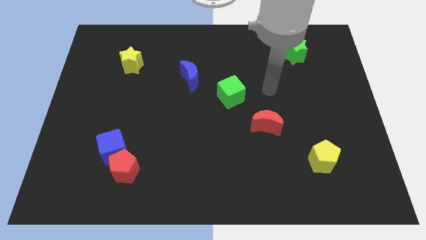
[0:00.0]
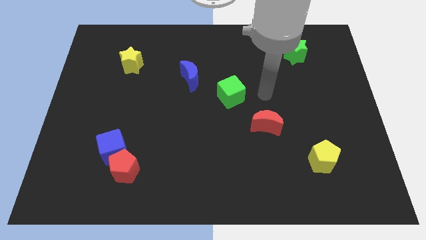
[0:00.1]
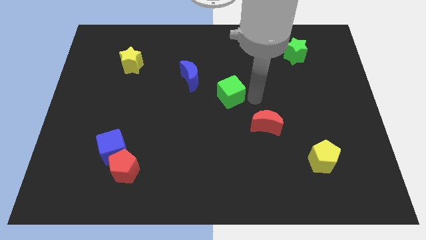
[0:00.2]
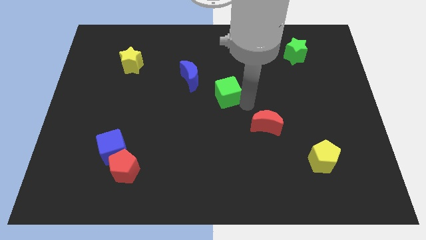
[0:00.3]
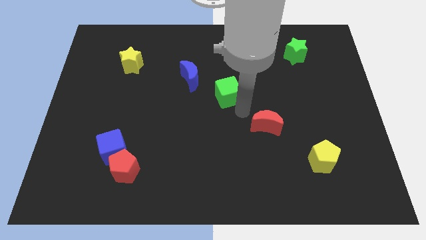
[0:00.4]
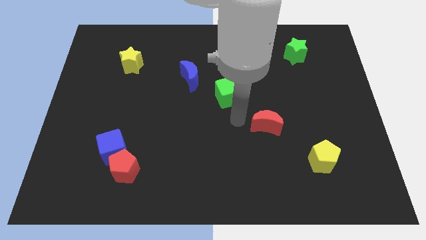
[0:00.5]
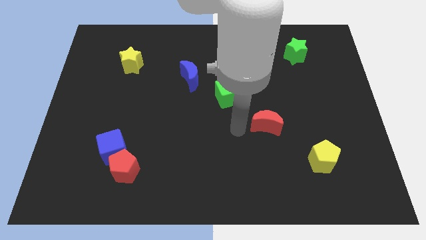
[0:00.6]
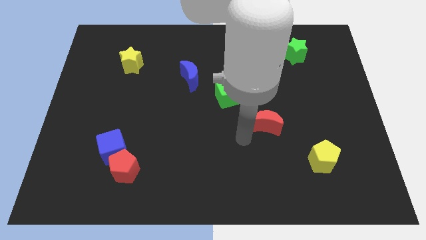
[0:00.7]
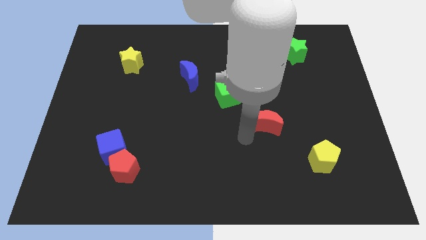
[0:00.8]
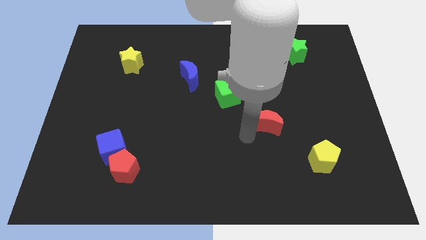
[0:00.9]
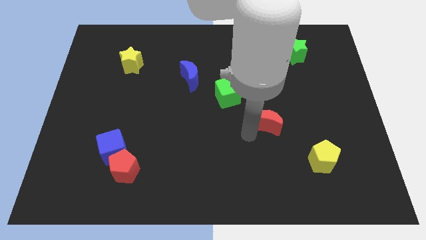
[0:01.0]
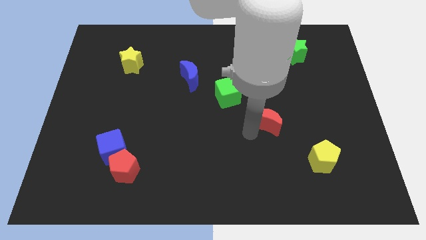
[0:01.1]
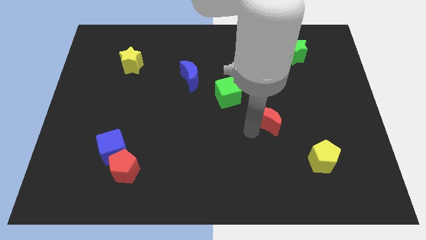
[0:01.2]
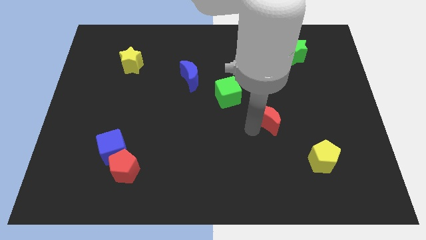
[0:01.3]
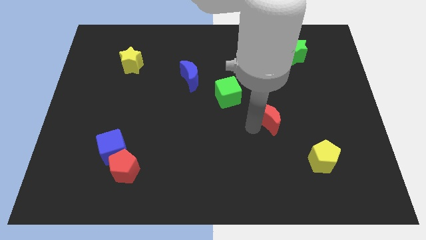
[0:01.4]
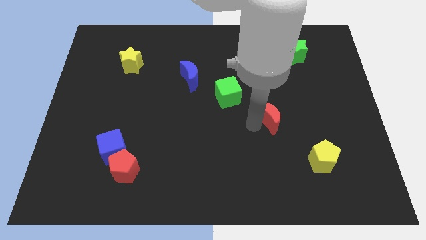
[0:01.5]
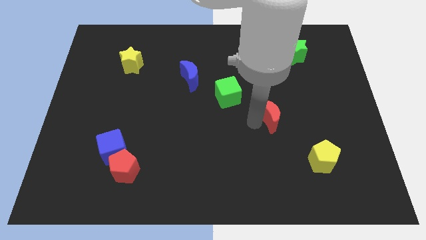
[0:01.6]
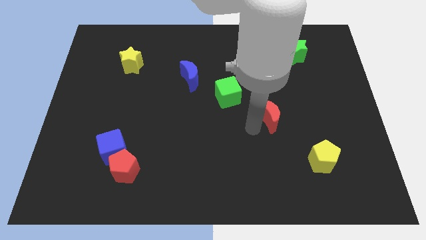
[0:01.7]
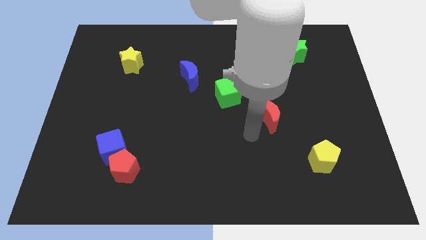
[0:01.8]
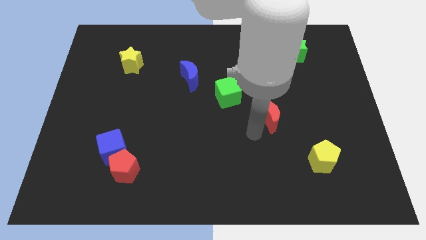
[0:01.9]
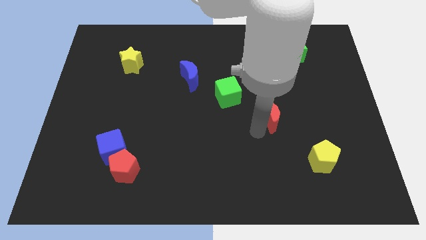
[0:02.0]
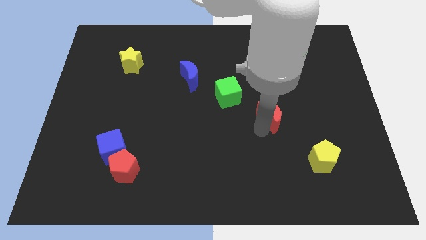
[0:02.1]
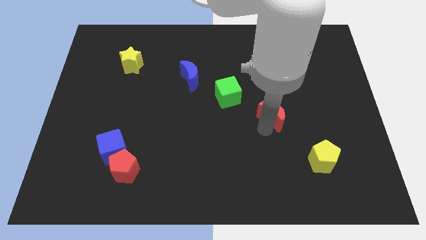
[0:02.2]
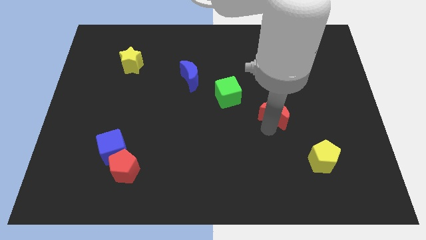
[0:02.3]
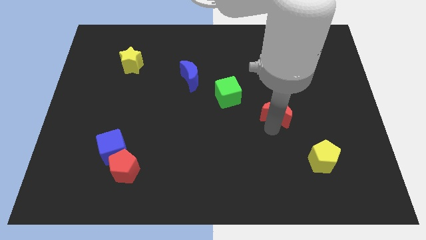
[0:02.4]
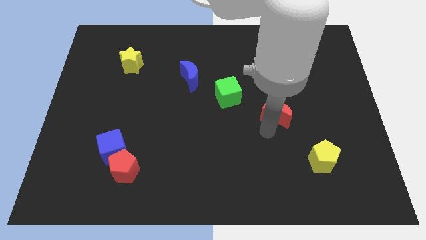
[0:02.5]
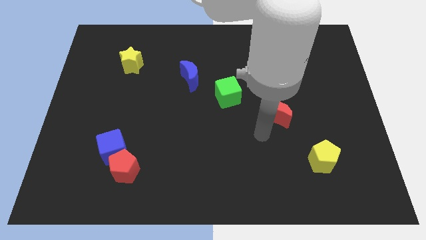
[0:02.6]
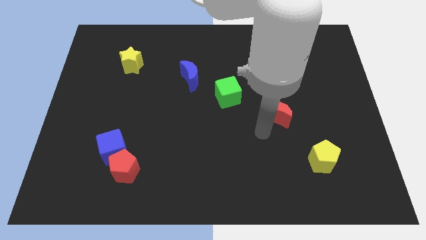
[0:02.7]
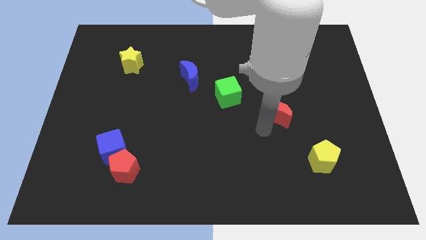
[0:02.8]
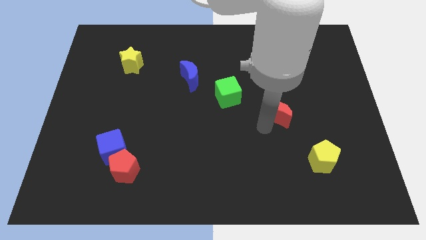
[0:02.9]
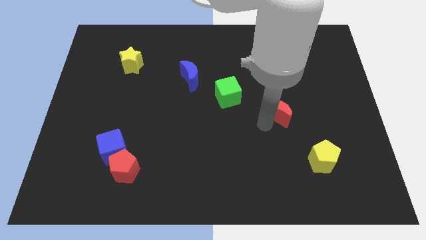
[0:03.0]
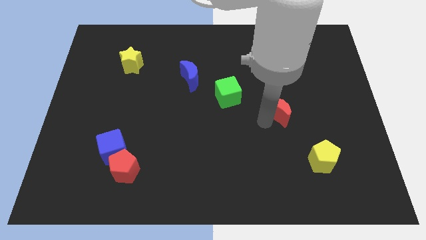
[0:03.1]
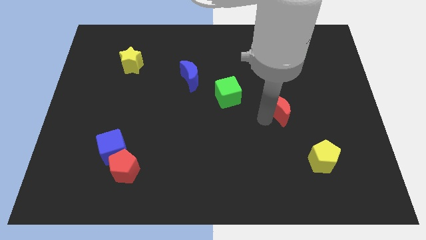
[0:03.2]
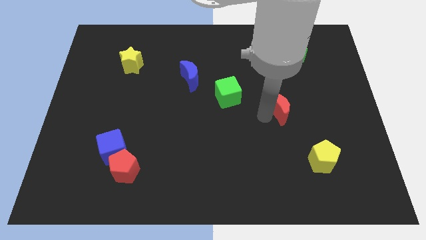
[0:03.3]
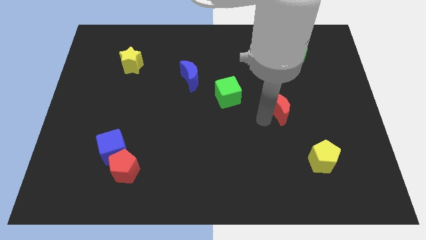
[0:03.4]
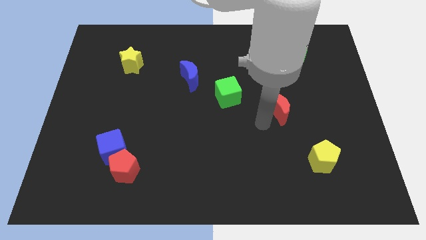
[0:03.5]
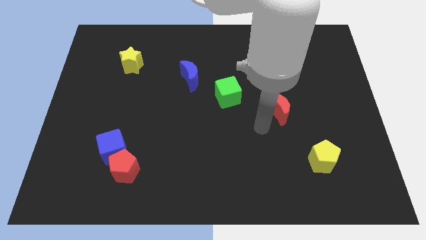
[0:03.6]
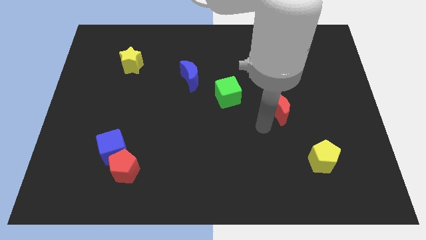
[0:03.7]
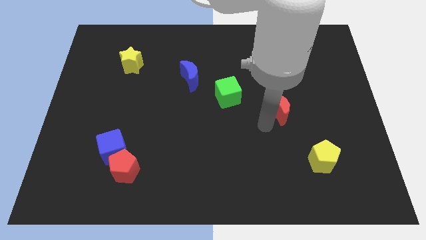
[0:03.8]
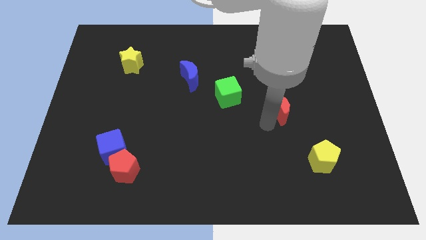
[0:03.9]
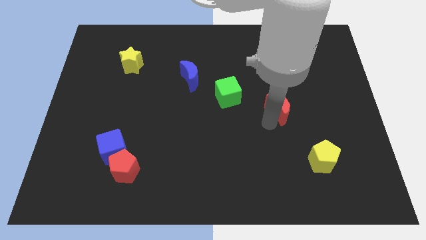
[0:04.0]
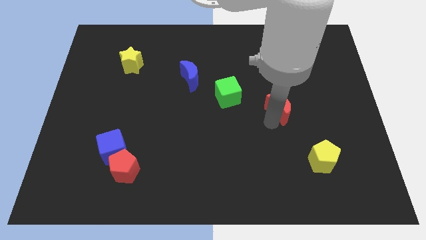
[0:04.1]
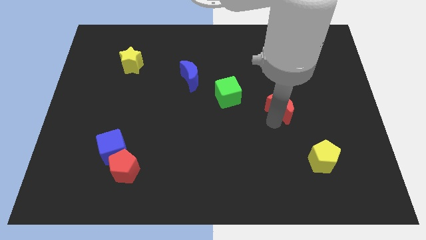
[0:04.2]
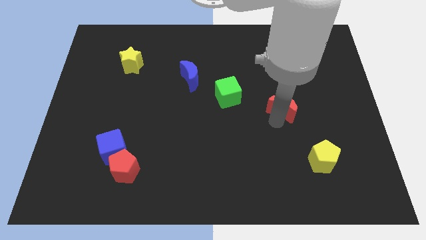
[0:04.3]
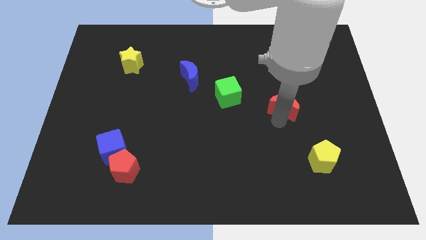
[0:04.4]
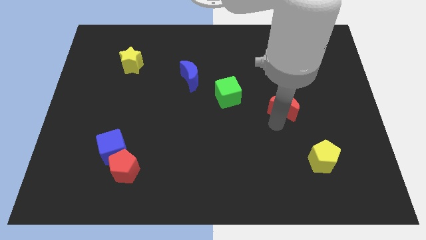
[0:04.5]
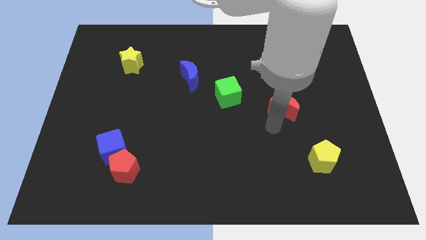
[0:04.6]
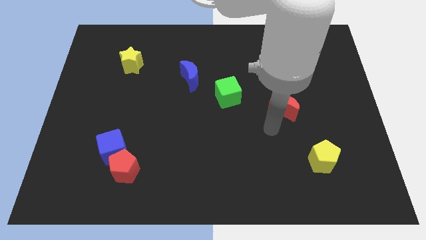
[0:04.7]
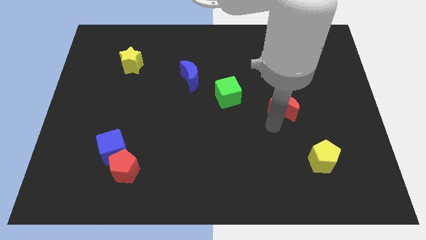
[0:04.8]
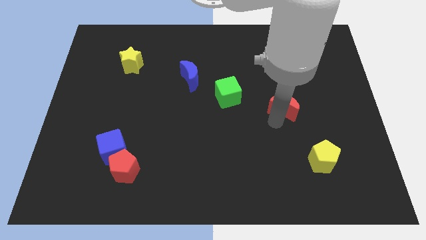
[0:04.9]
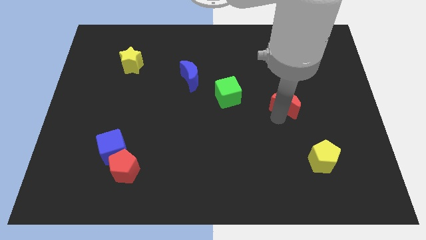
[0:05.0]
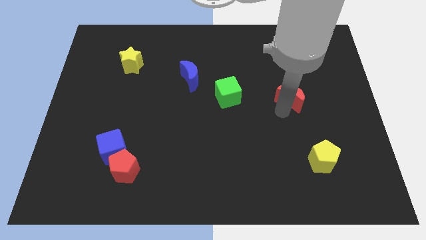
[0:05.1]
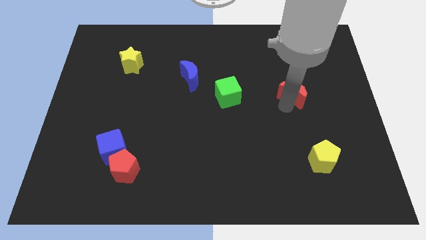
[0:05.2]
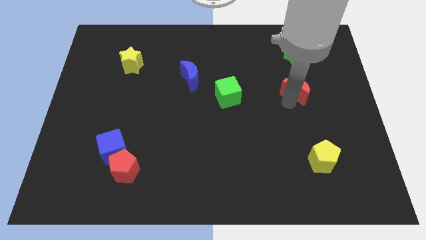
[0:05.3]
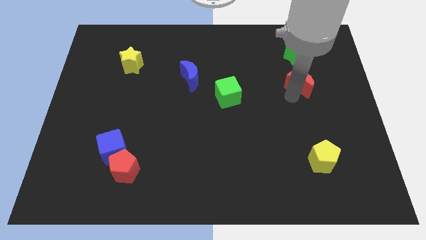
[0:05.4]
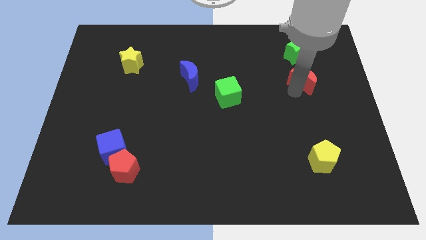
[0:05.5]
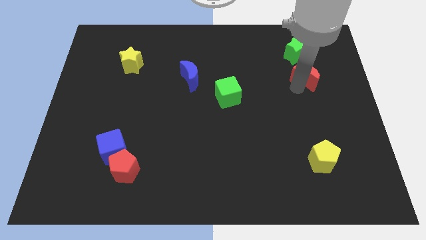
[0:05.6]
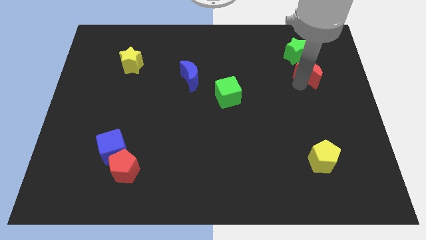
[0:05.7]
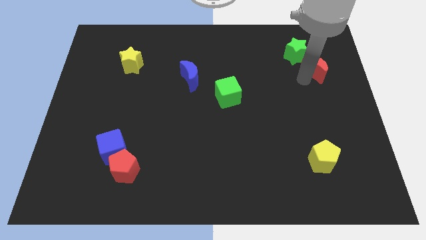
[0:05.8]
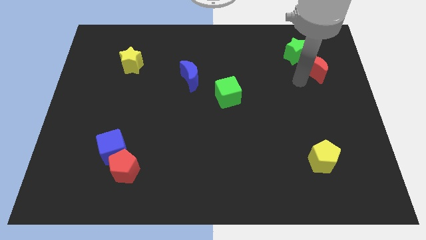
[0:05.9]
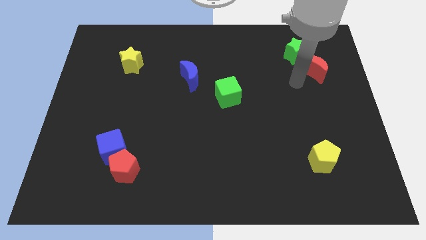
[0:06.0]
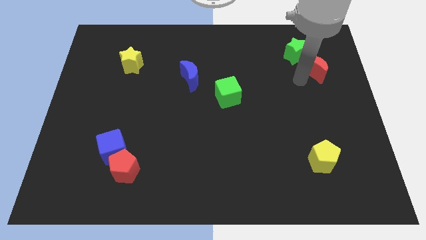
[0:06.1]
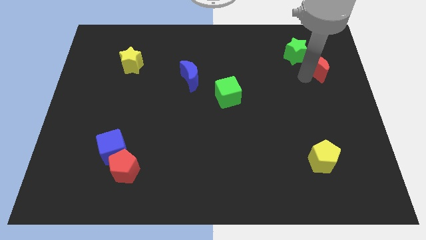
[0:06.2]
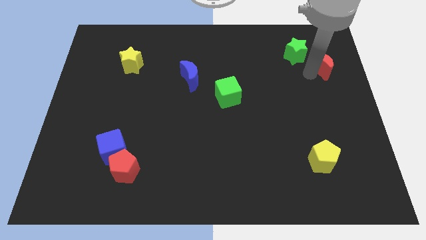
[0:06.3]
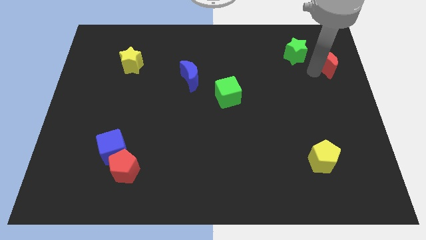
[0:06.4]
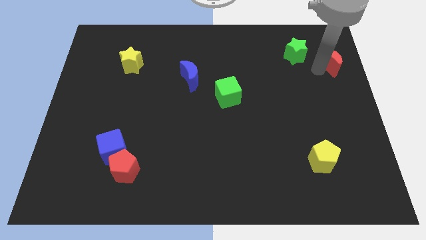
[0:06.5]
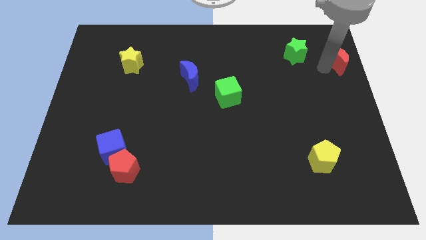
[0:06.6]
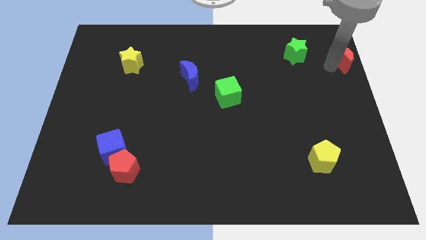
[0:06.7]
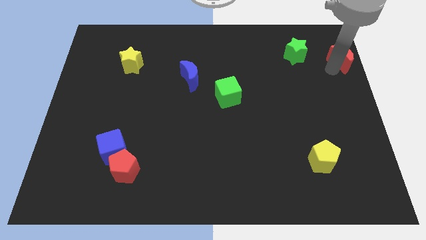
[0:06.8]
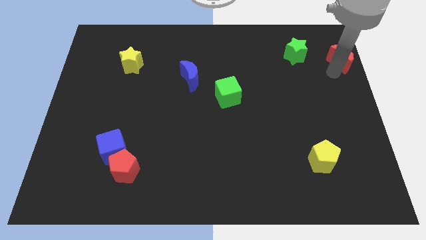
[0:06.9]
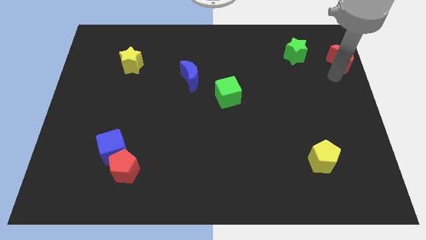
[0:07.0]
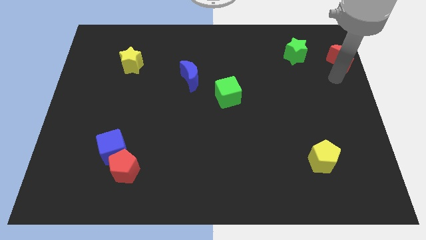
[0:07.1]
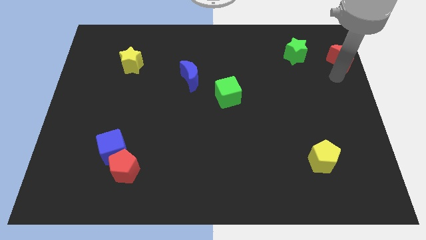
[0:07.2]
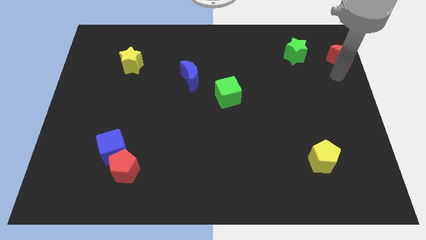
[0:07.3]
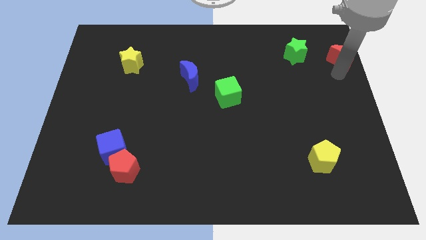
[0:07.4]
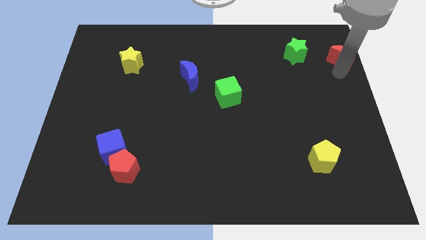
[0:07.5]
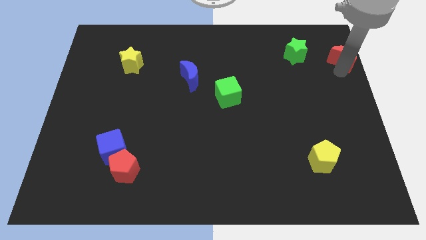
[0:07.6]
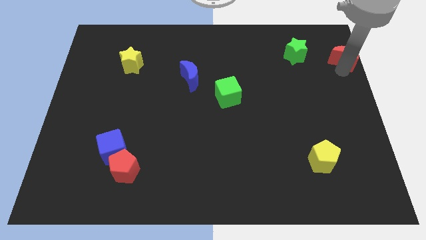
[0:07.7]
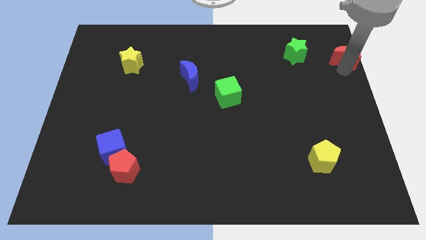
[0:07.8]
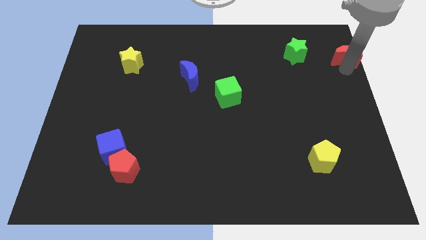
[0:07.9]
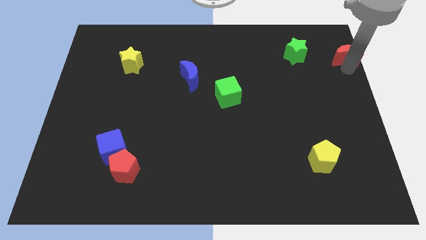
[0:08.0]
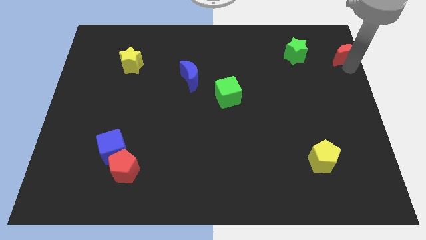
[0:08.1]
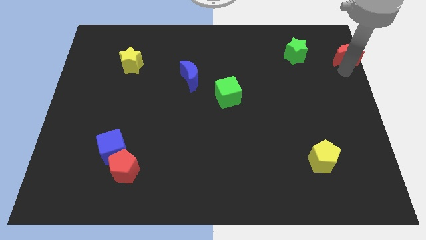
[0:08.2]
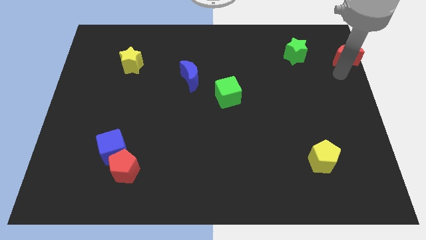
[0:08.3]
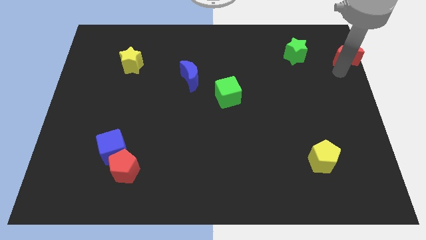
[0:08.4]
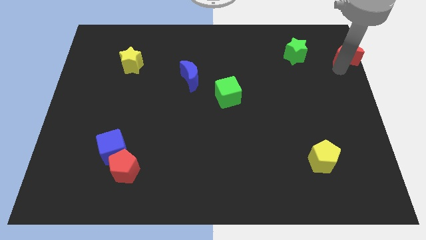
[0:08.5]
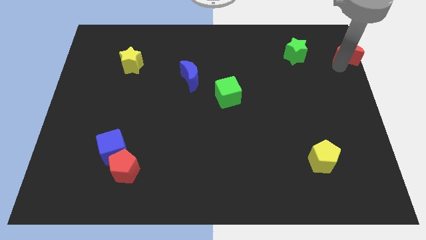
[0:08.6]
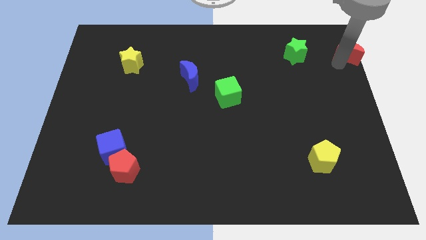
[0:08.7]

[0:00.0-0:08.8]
push the red moon to the upper right corner
